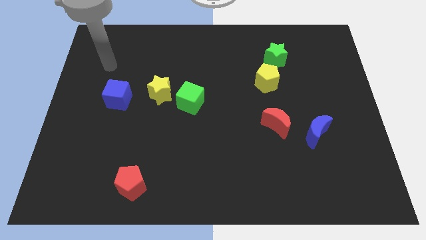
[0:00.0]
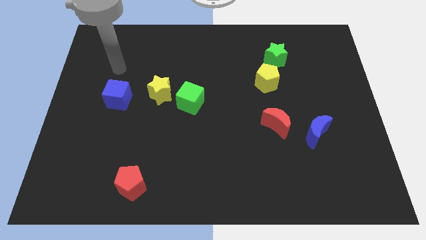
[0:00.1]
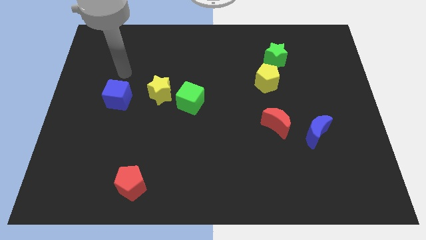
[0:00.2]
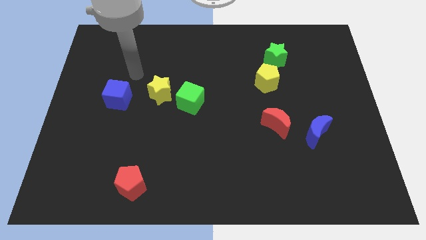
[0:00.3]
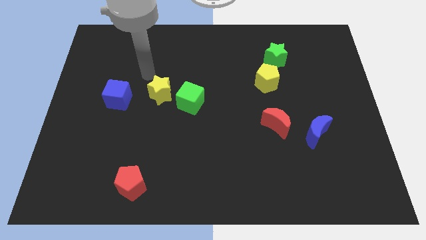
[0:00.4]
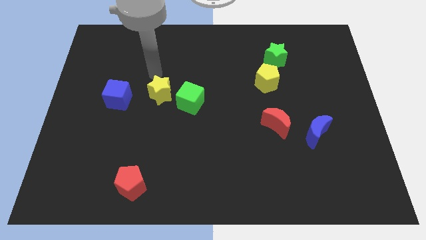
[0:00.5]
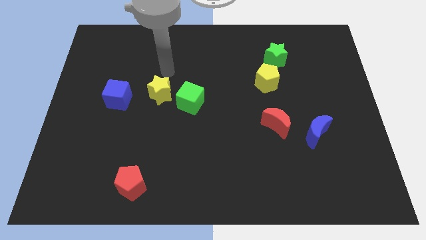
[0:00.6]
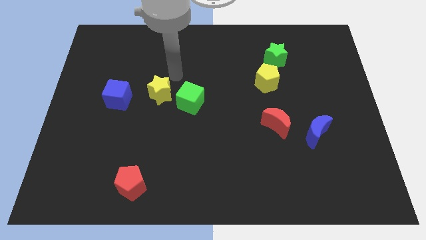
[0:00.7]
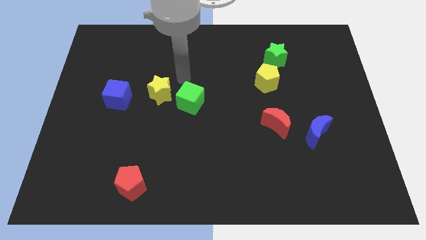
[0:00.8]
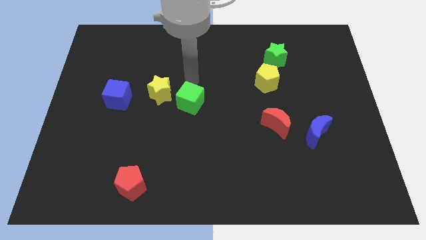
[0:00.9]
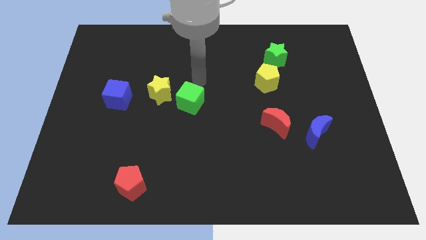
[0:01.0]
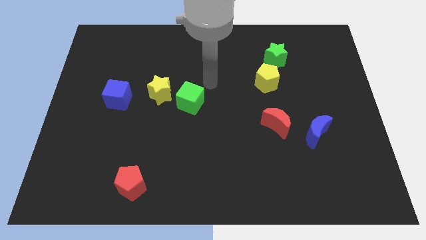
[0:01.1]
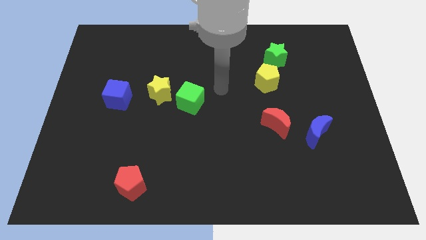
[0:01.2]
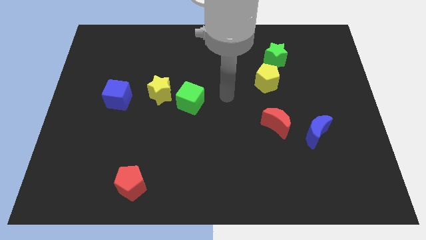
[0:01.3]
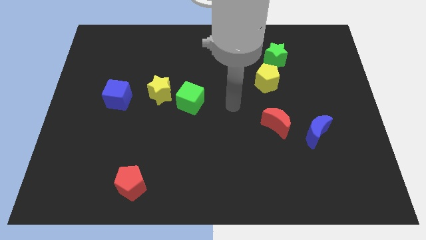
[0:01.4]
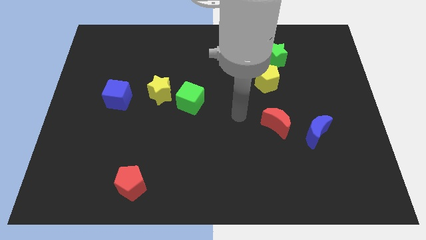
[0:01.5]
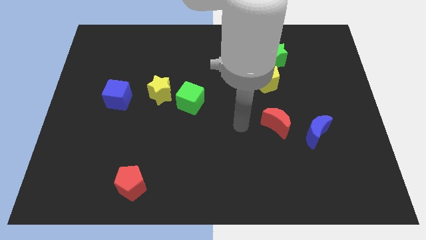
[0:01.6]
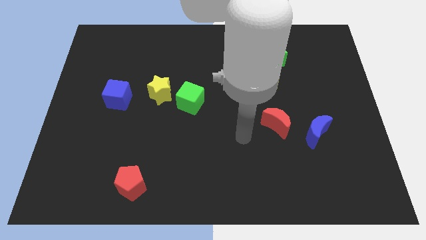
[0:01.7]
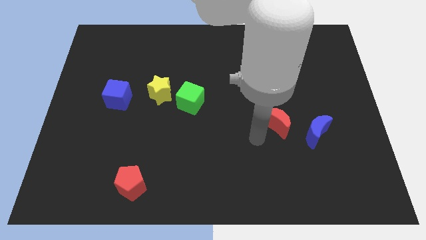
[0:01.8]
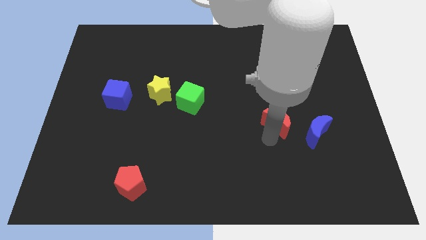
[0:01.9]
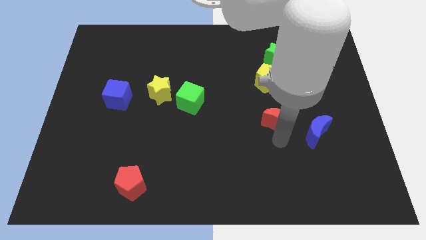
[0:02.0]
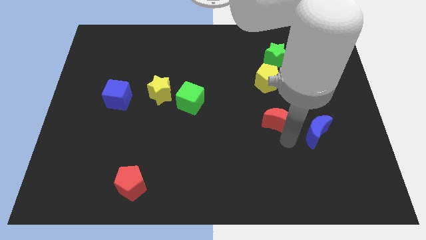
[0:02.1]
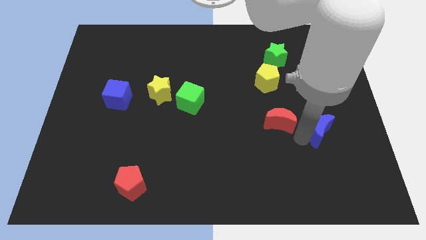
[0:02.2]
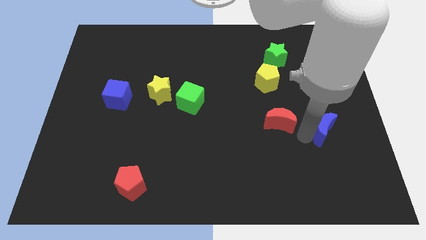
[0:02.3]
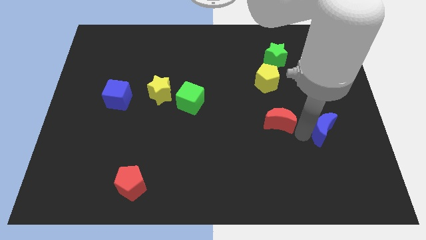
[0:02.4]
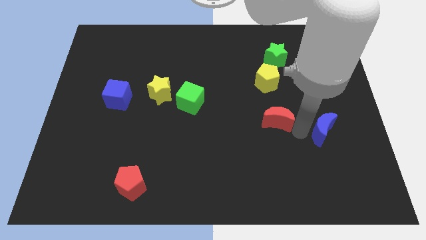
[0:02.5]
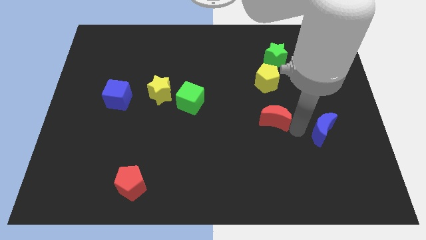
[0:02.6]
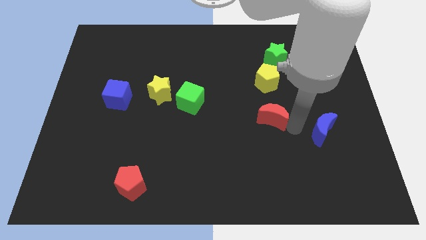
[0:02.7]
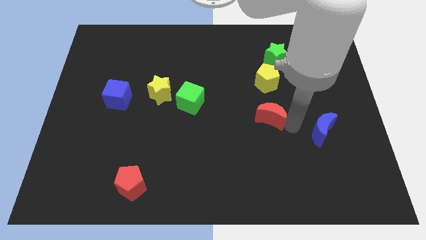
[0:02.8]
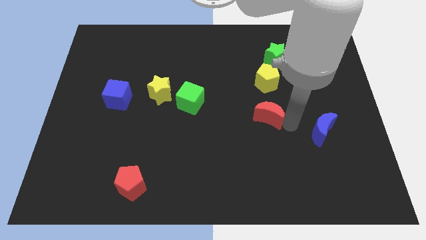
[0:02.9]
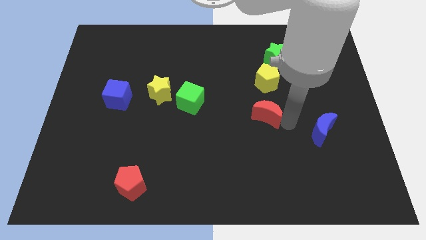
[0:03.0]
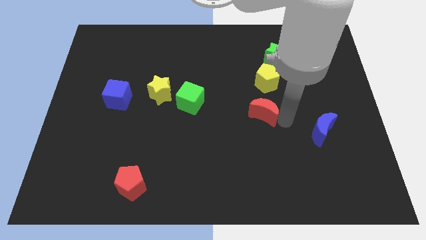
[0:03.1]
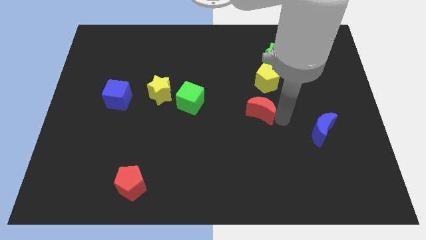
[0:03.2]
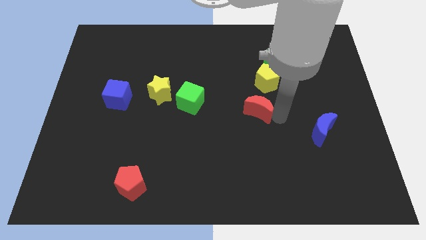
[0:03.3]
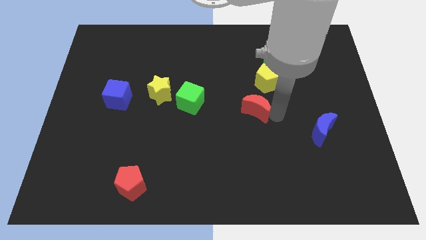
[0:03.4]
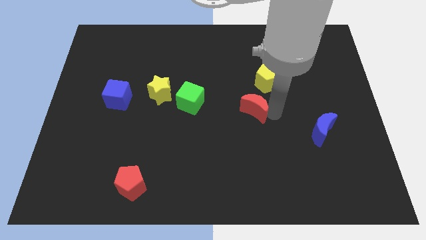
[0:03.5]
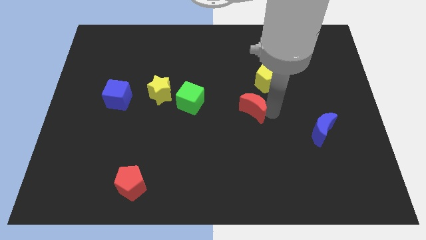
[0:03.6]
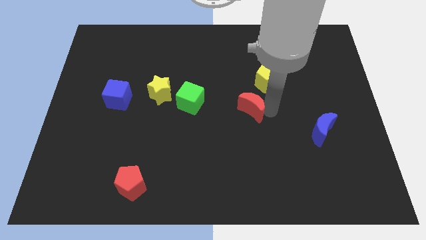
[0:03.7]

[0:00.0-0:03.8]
slightly push the red moon up and to the left

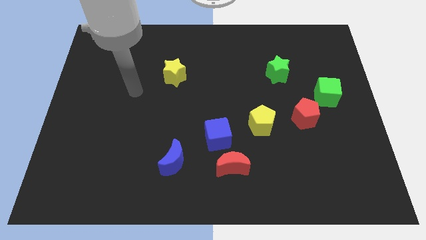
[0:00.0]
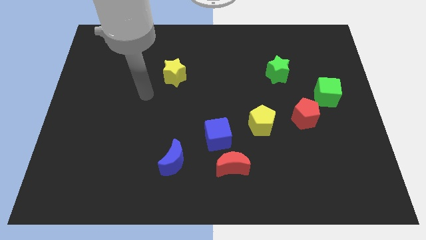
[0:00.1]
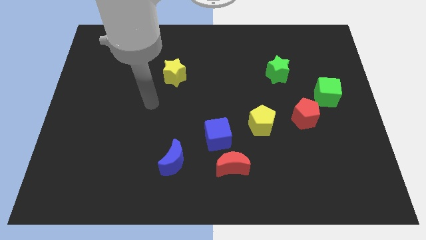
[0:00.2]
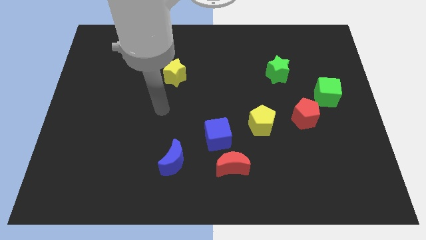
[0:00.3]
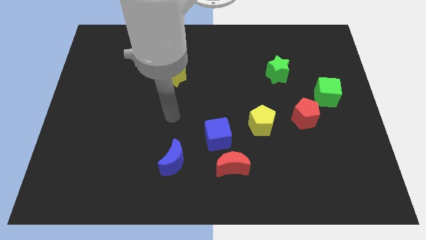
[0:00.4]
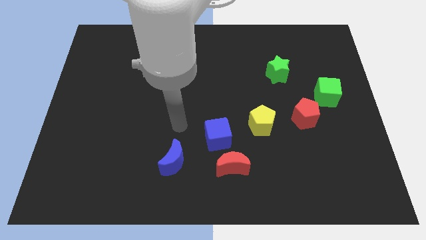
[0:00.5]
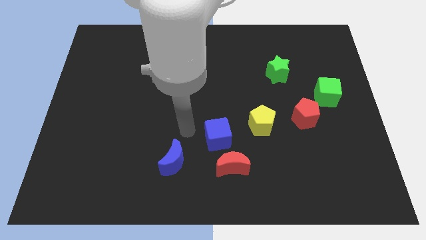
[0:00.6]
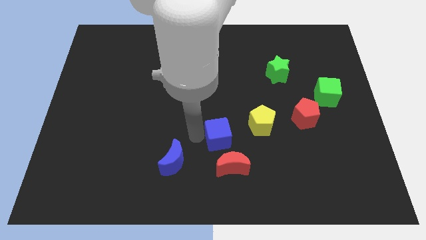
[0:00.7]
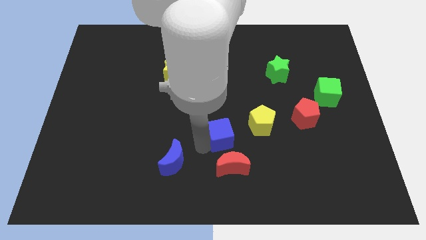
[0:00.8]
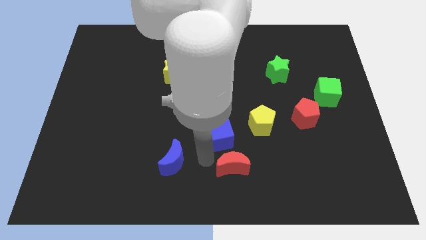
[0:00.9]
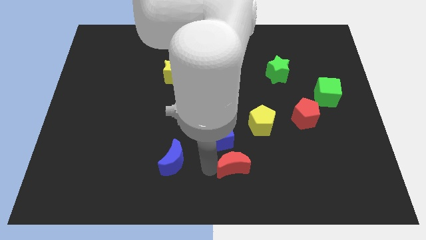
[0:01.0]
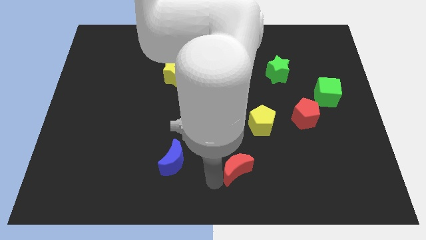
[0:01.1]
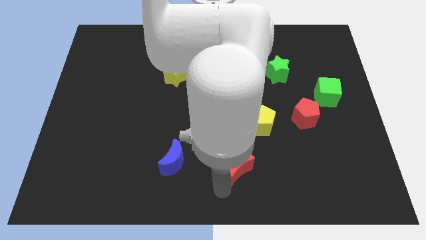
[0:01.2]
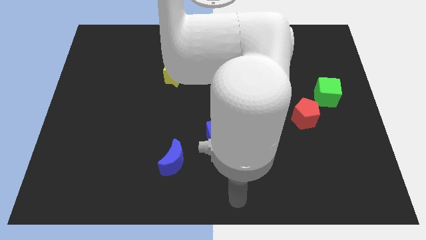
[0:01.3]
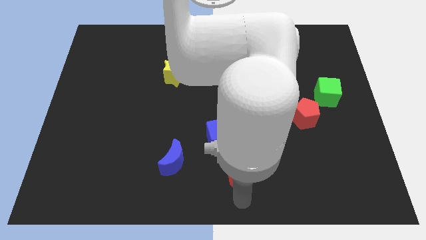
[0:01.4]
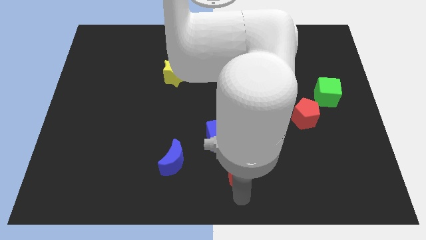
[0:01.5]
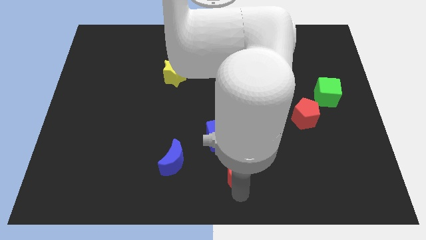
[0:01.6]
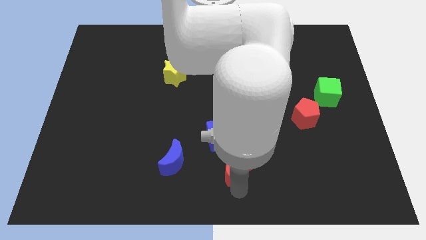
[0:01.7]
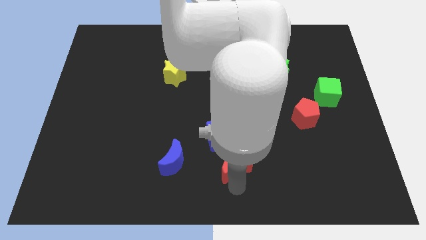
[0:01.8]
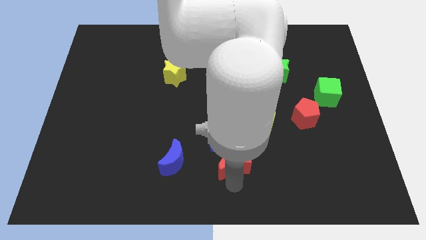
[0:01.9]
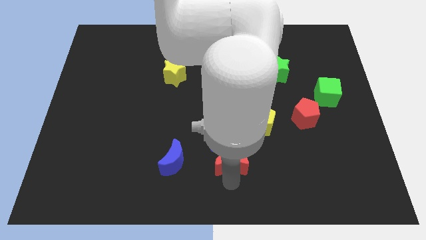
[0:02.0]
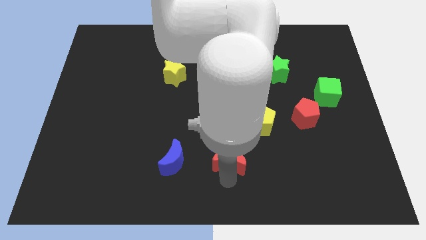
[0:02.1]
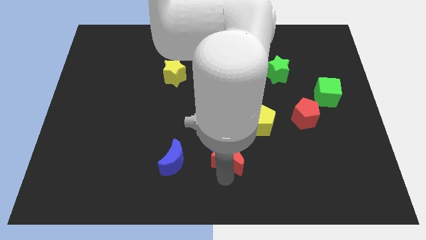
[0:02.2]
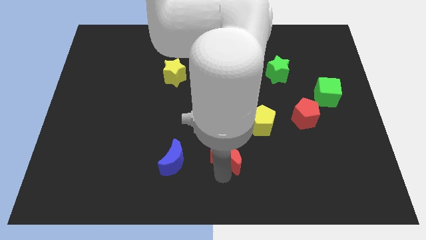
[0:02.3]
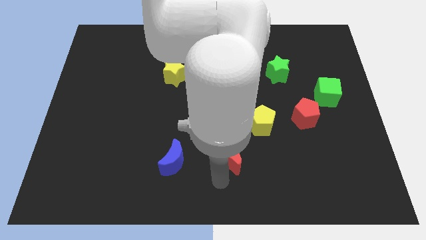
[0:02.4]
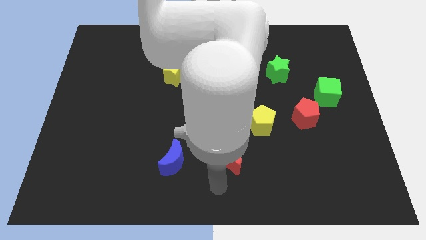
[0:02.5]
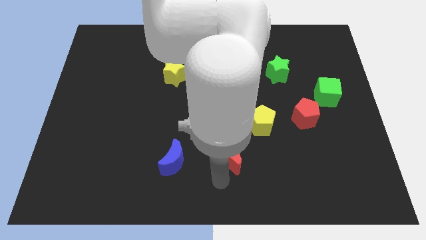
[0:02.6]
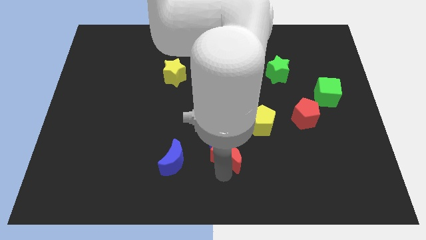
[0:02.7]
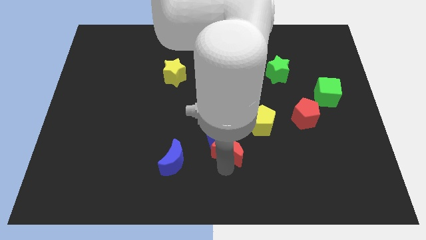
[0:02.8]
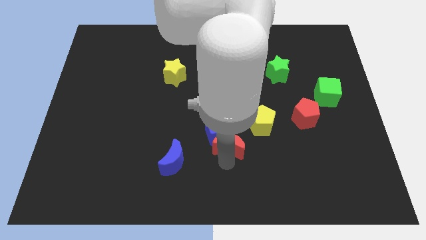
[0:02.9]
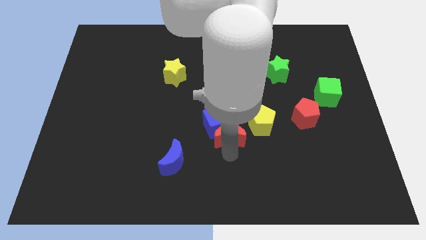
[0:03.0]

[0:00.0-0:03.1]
slide the red moon slightly up

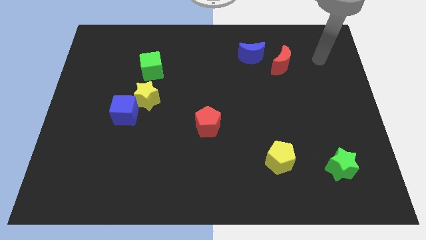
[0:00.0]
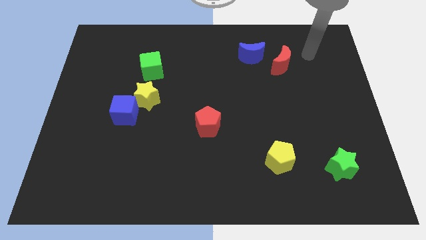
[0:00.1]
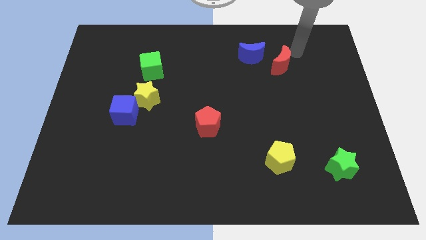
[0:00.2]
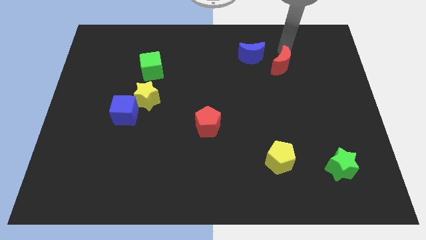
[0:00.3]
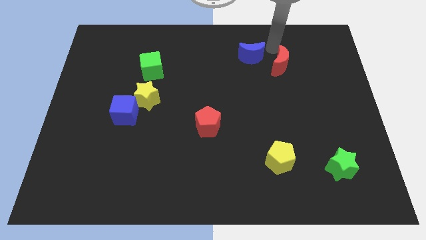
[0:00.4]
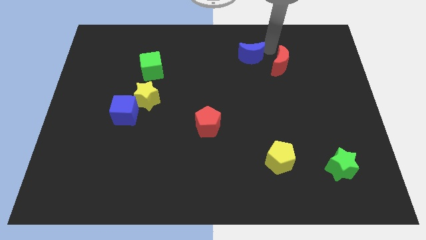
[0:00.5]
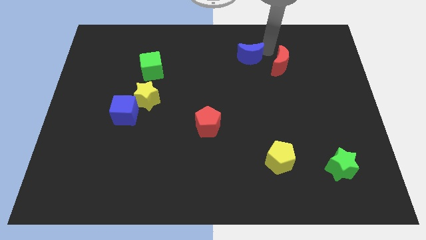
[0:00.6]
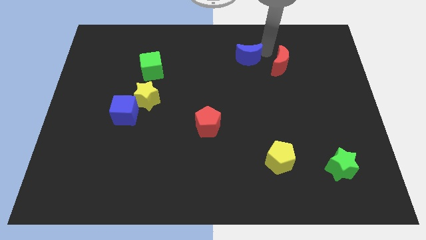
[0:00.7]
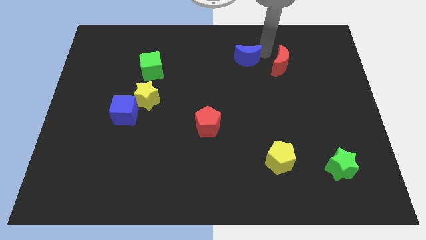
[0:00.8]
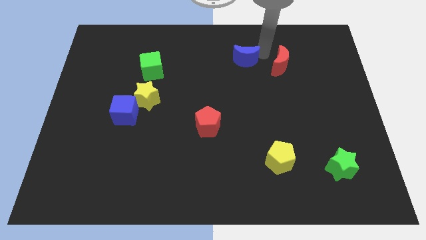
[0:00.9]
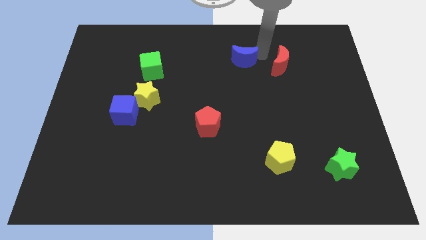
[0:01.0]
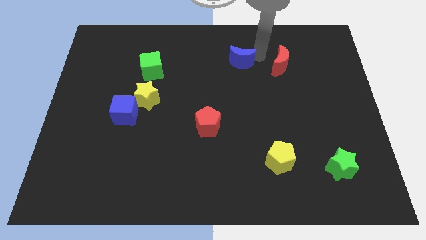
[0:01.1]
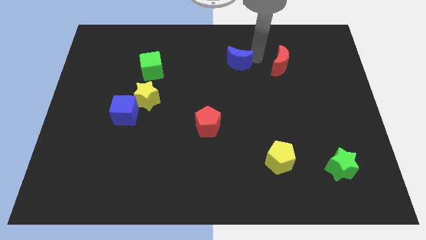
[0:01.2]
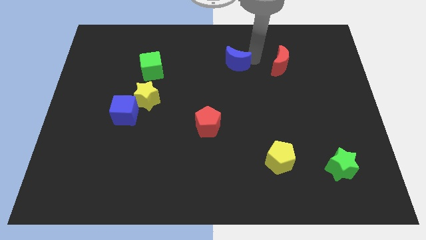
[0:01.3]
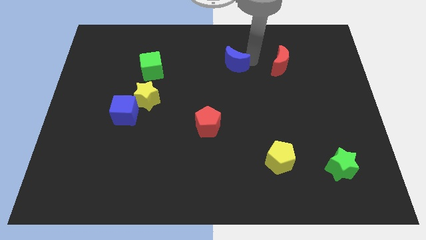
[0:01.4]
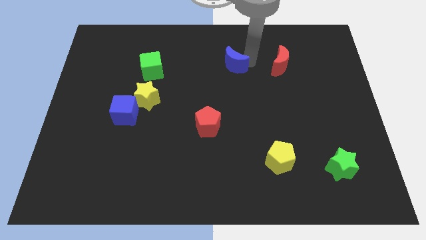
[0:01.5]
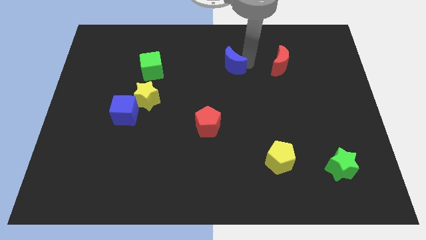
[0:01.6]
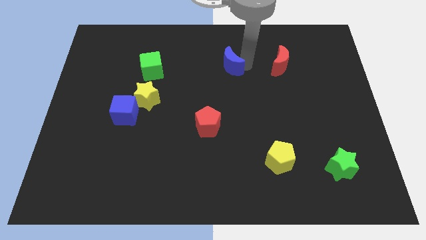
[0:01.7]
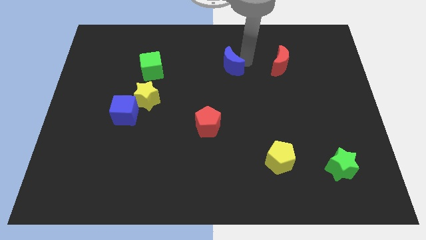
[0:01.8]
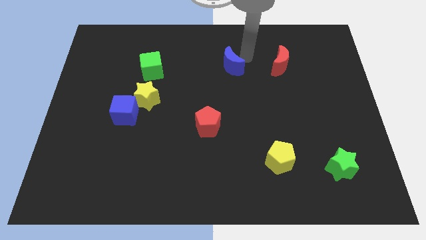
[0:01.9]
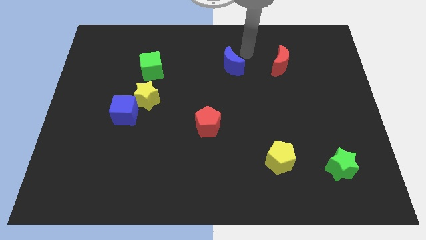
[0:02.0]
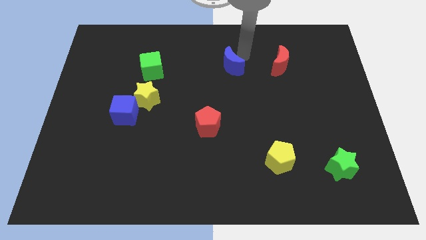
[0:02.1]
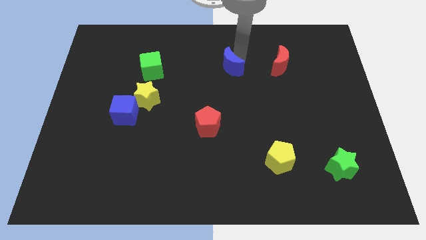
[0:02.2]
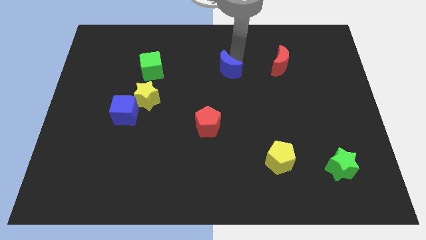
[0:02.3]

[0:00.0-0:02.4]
slightly move the blue moon downwards and then to the left
